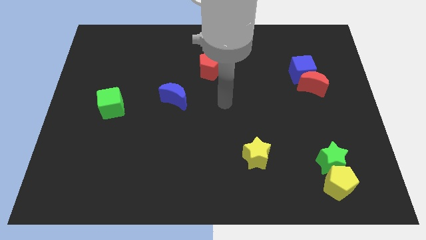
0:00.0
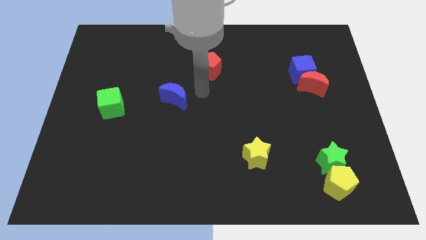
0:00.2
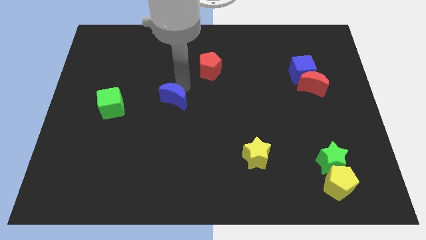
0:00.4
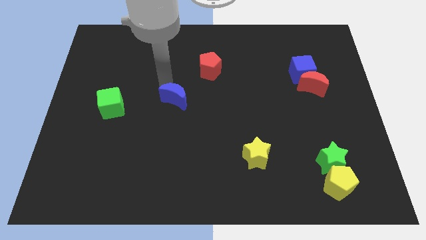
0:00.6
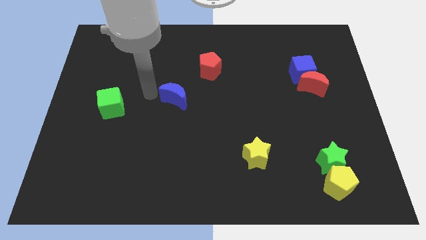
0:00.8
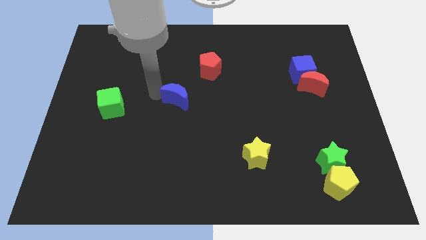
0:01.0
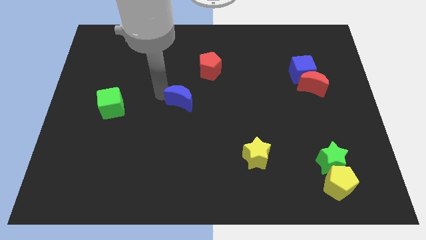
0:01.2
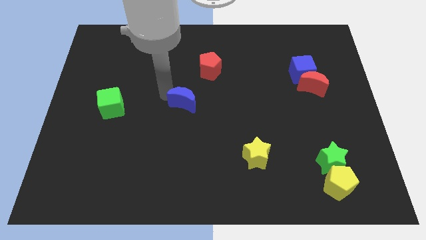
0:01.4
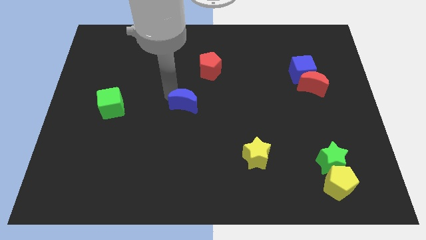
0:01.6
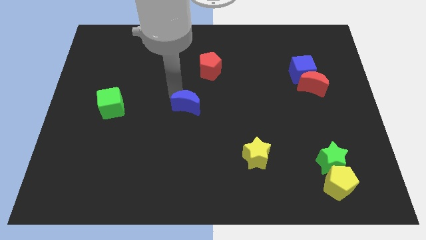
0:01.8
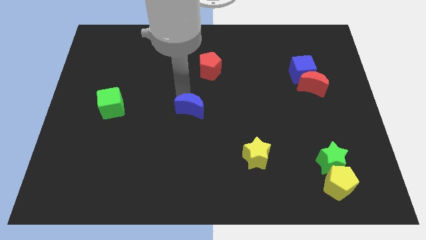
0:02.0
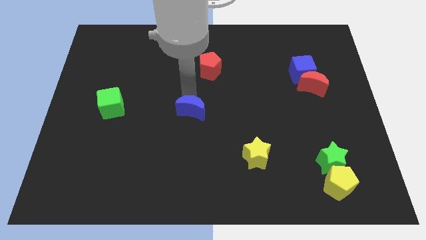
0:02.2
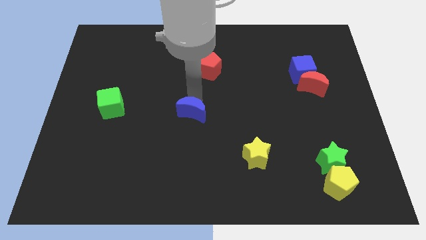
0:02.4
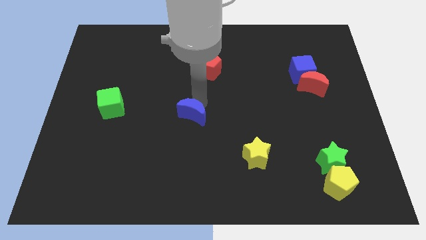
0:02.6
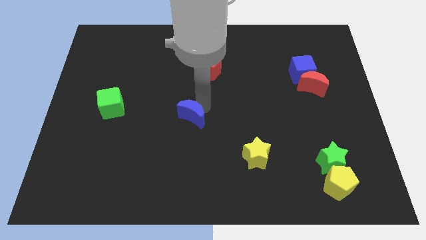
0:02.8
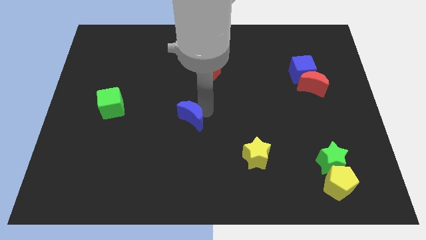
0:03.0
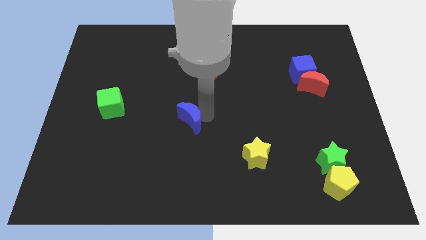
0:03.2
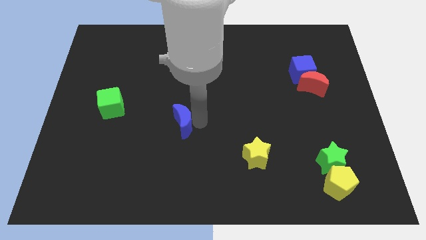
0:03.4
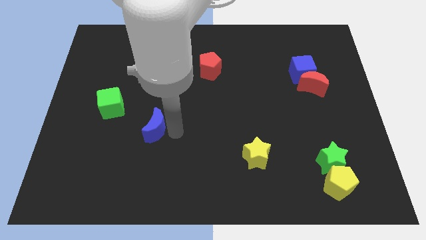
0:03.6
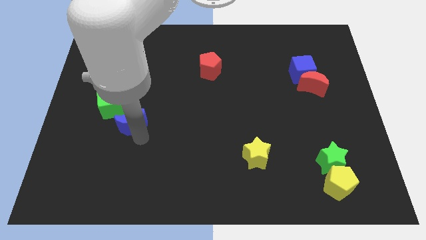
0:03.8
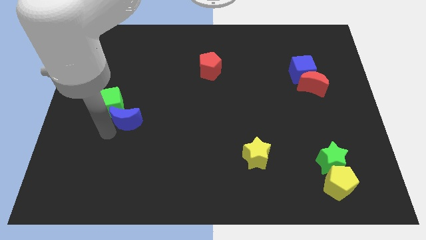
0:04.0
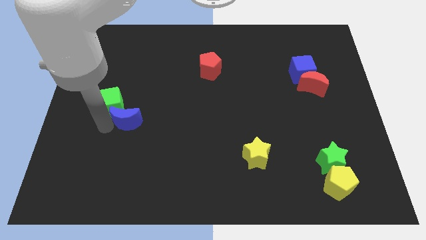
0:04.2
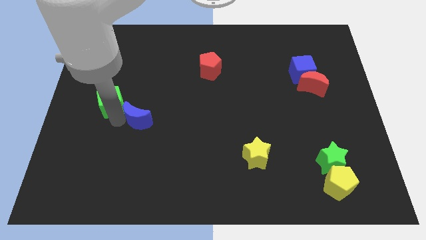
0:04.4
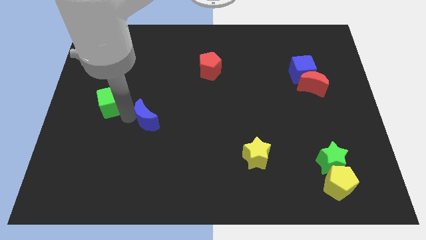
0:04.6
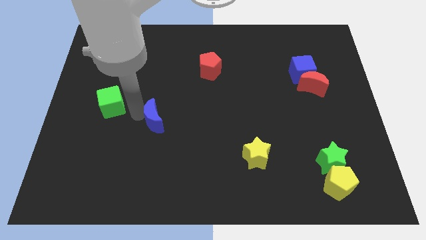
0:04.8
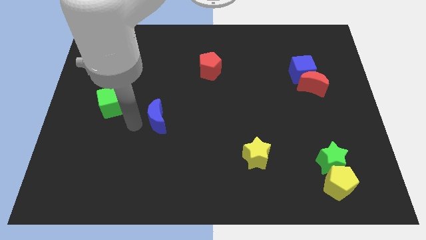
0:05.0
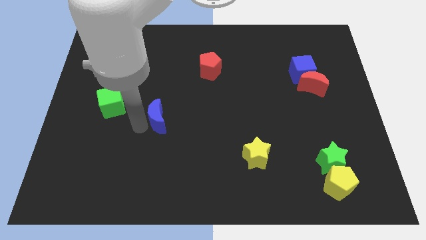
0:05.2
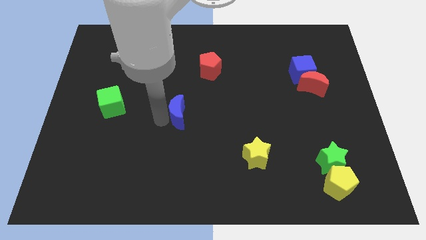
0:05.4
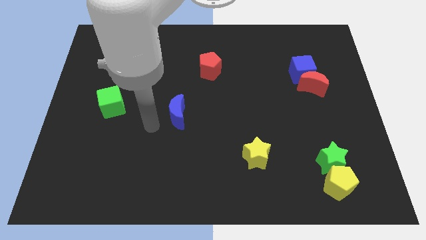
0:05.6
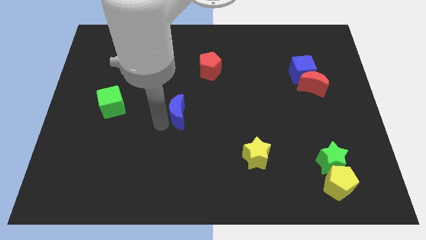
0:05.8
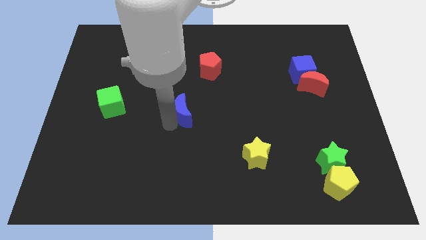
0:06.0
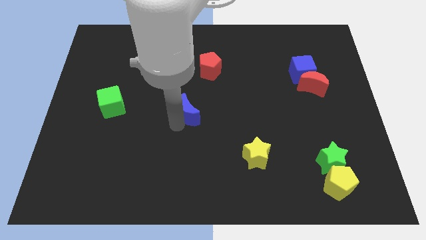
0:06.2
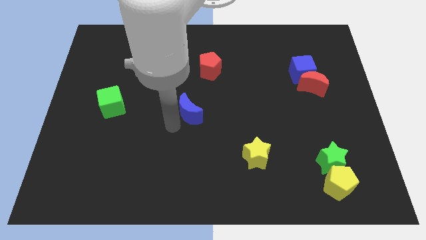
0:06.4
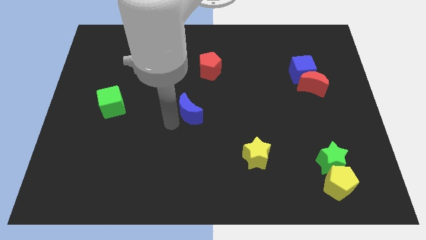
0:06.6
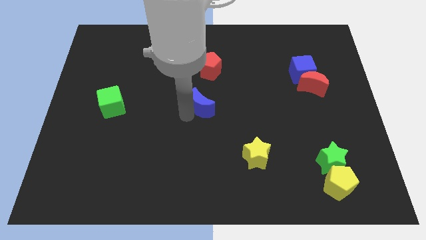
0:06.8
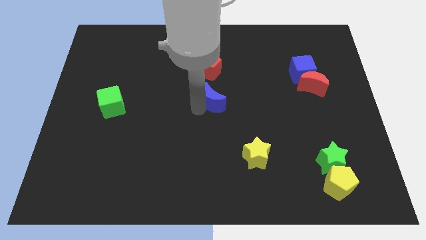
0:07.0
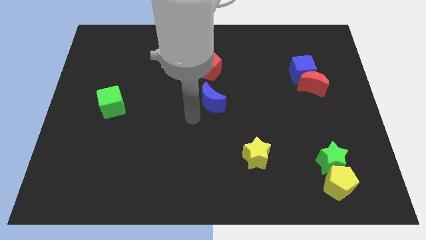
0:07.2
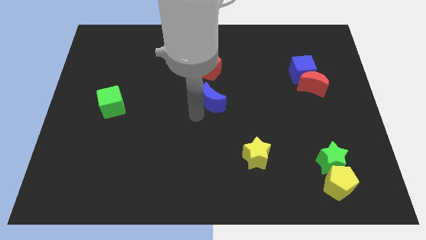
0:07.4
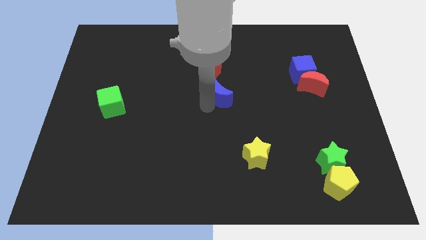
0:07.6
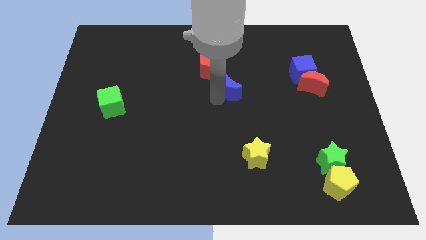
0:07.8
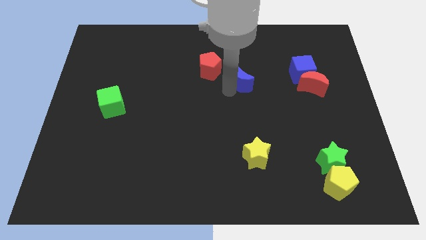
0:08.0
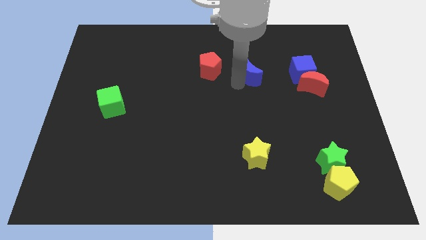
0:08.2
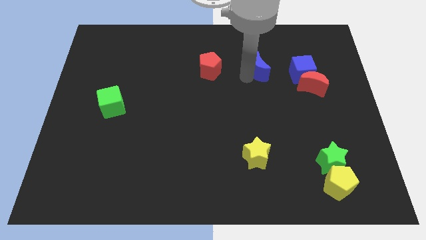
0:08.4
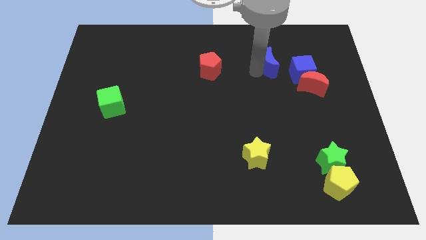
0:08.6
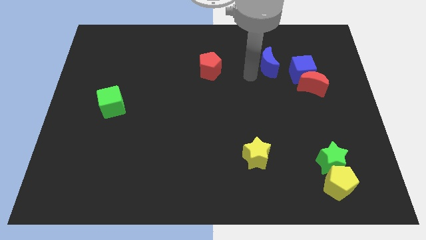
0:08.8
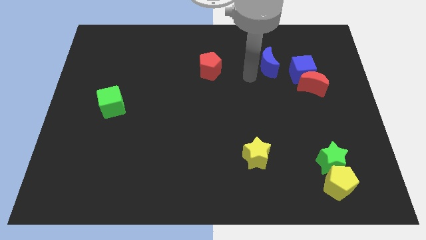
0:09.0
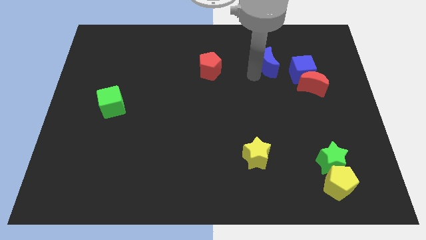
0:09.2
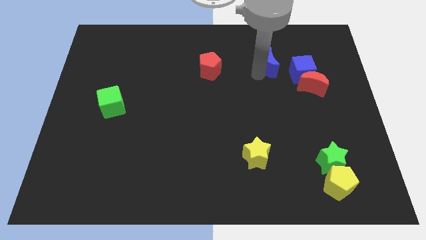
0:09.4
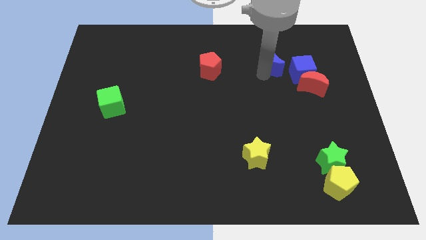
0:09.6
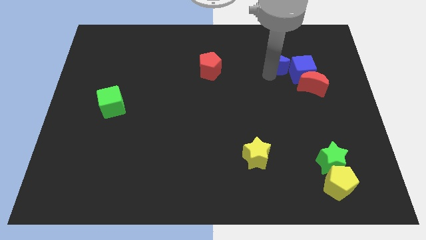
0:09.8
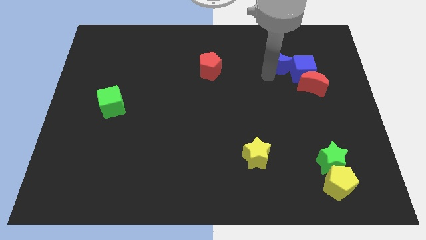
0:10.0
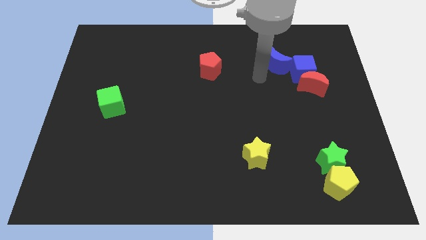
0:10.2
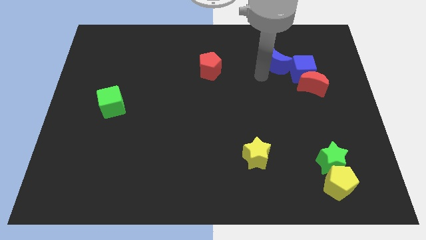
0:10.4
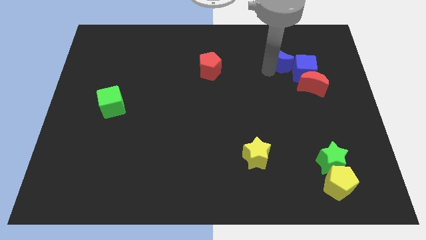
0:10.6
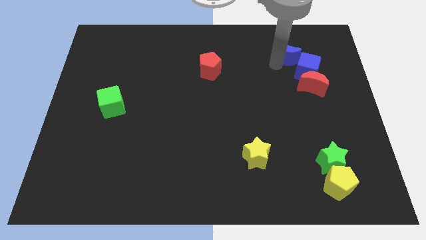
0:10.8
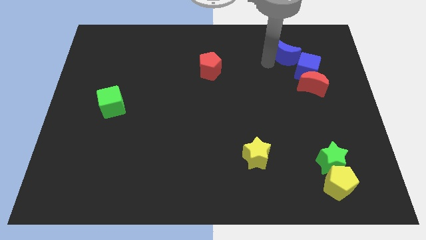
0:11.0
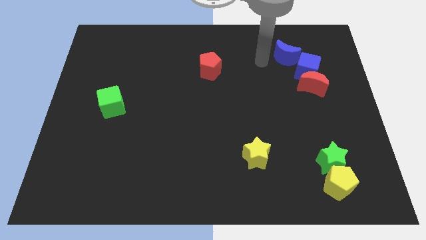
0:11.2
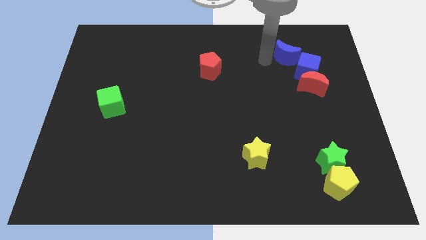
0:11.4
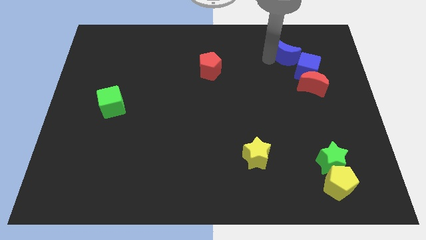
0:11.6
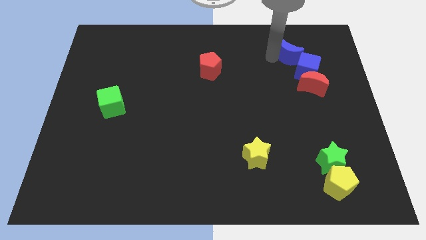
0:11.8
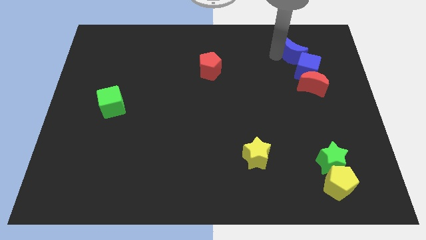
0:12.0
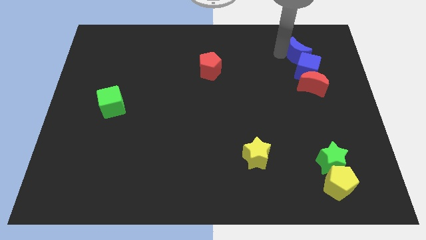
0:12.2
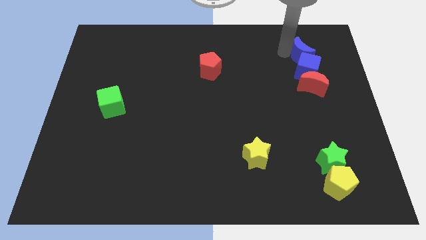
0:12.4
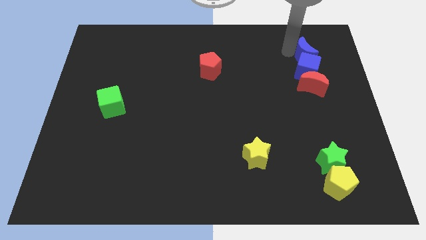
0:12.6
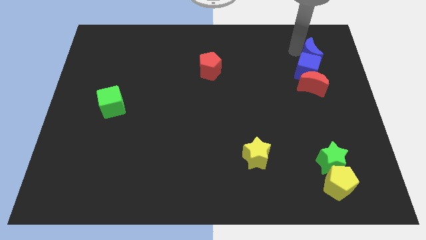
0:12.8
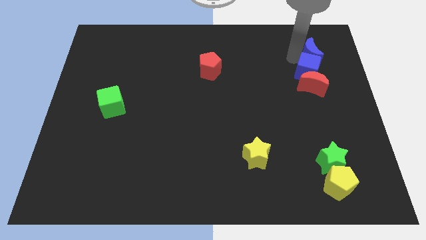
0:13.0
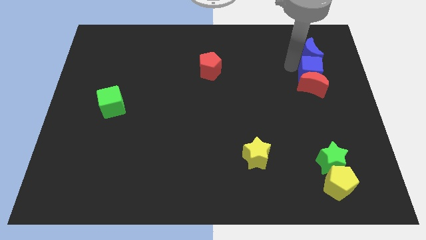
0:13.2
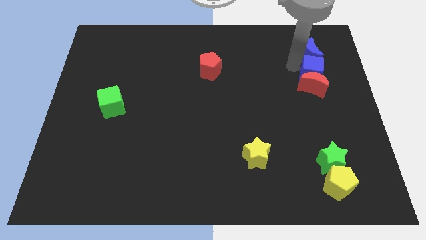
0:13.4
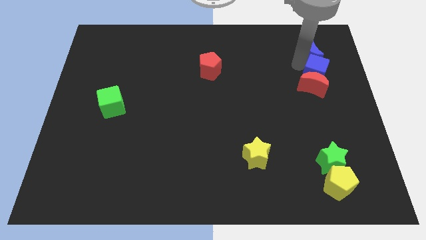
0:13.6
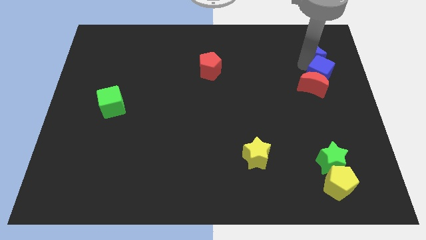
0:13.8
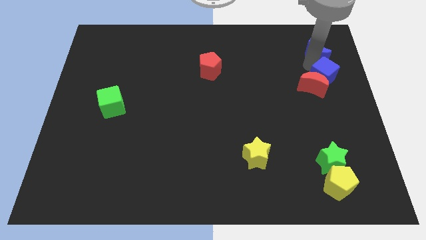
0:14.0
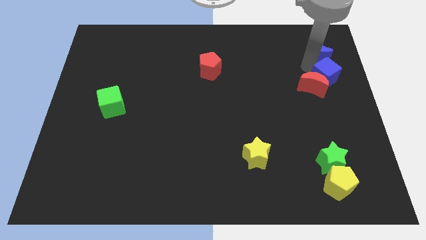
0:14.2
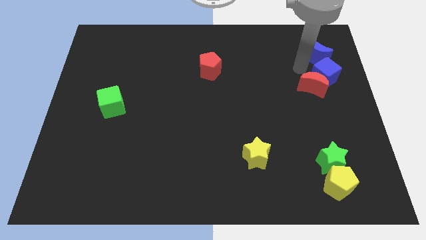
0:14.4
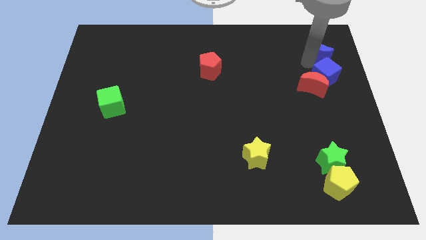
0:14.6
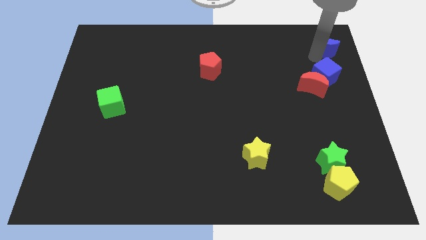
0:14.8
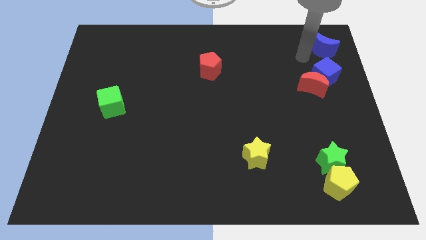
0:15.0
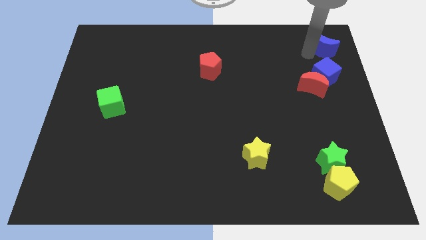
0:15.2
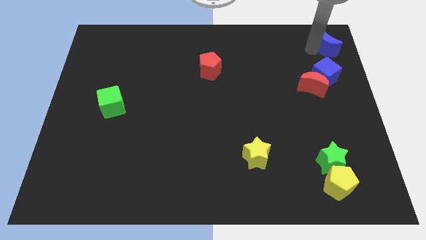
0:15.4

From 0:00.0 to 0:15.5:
put the blue moon to the top right
